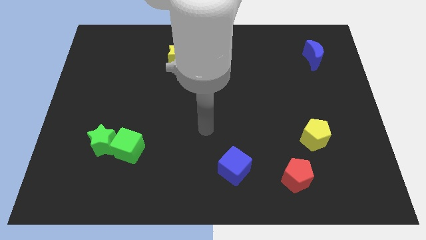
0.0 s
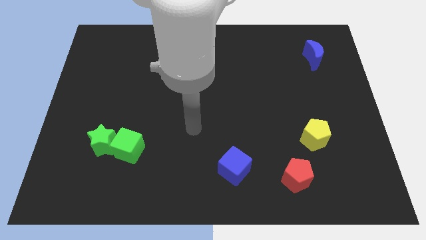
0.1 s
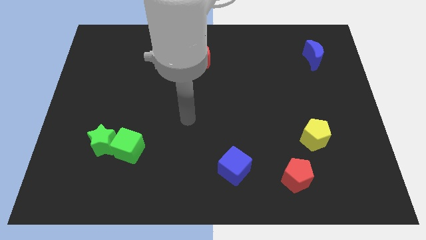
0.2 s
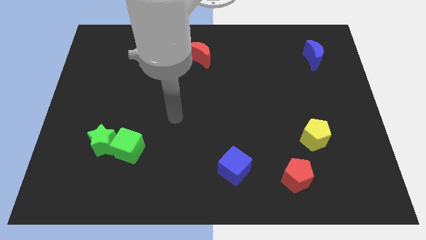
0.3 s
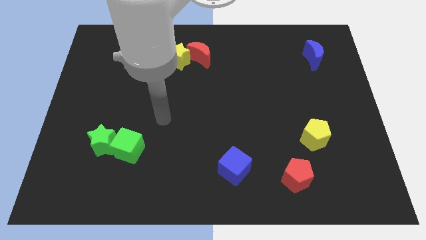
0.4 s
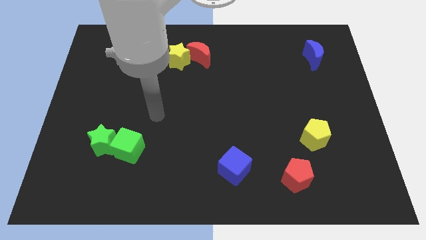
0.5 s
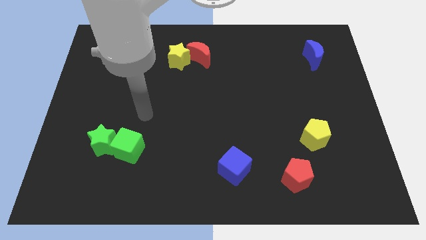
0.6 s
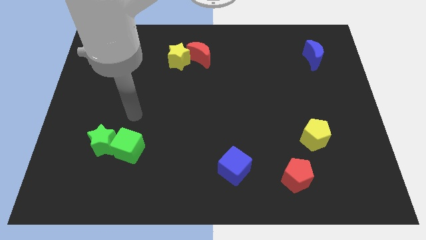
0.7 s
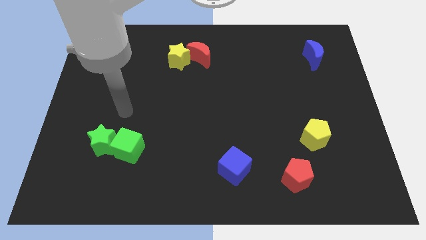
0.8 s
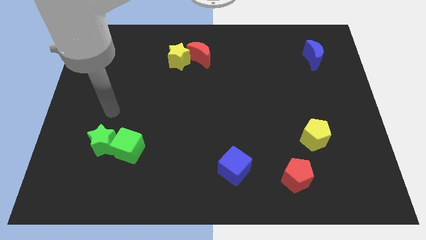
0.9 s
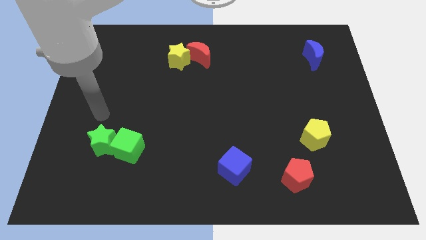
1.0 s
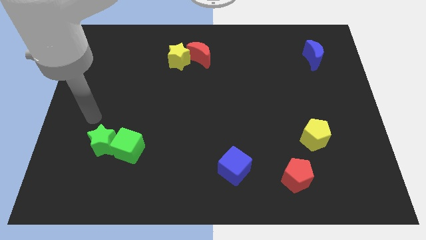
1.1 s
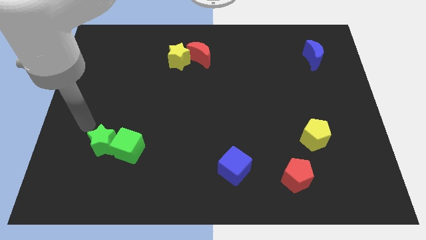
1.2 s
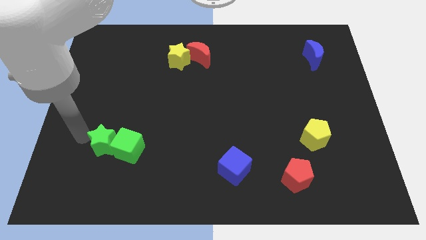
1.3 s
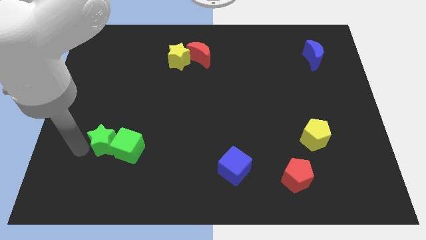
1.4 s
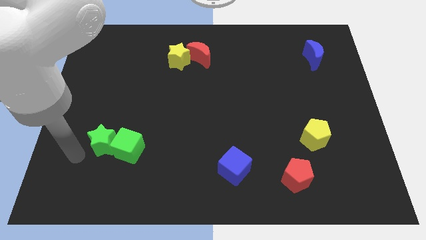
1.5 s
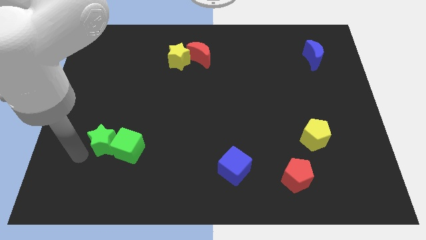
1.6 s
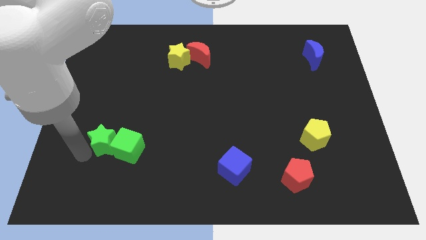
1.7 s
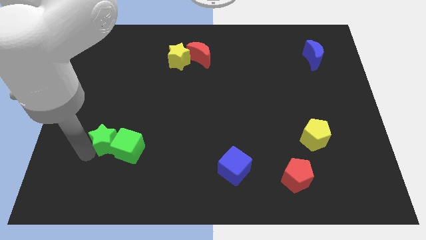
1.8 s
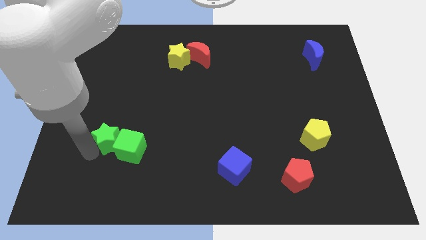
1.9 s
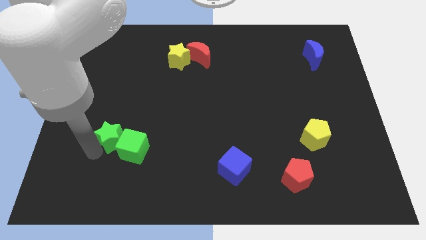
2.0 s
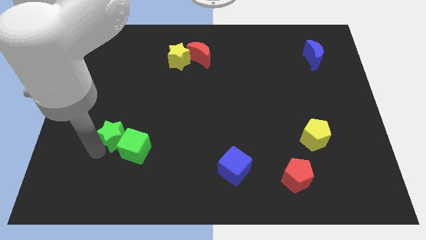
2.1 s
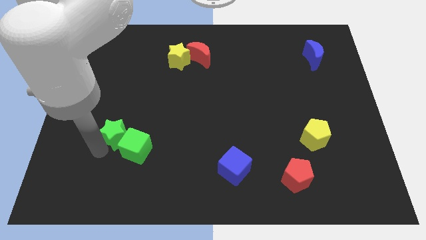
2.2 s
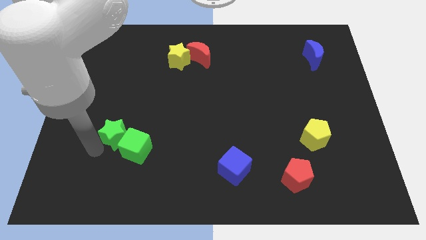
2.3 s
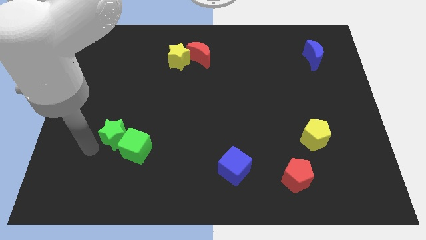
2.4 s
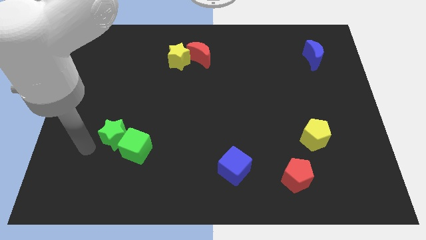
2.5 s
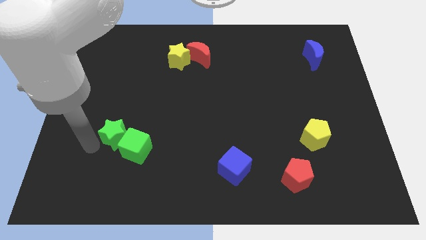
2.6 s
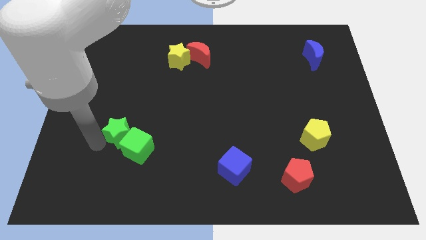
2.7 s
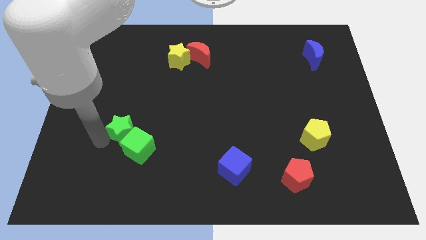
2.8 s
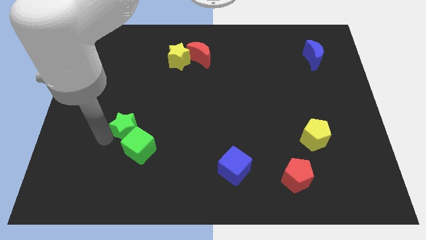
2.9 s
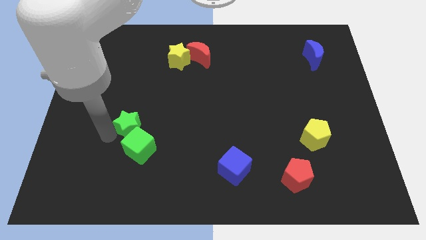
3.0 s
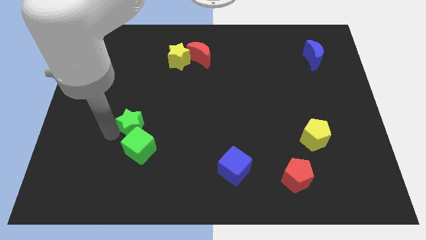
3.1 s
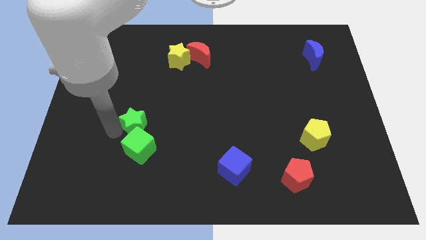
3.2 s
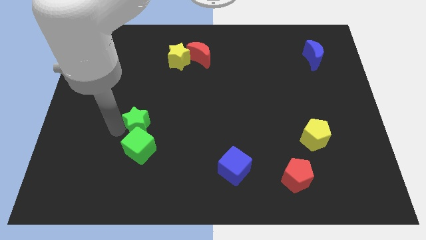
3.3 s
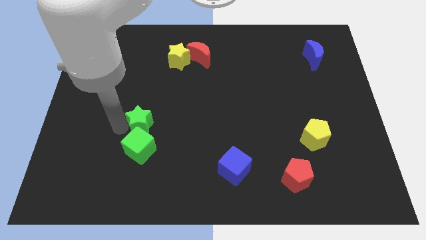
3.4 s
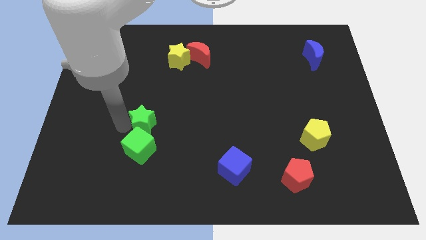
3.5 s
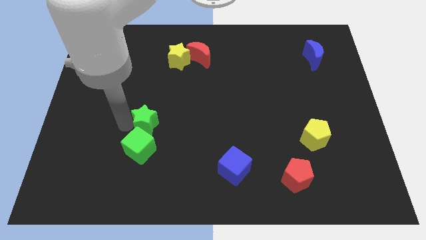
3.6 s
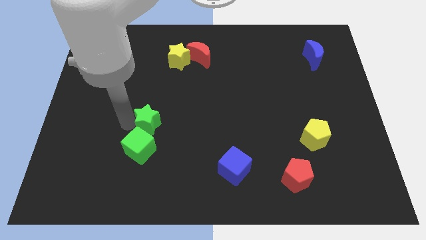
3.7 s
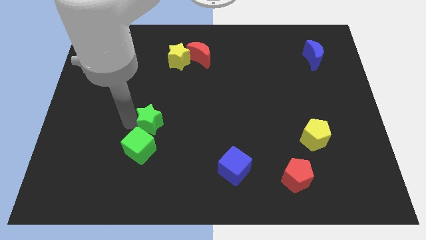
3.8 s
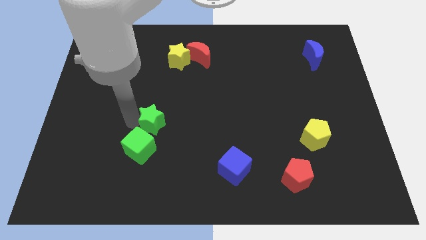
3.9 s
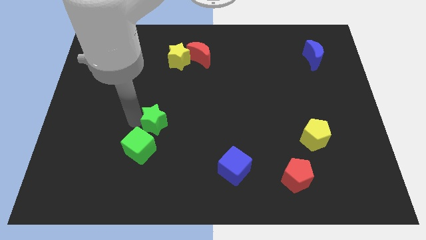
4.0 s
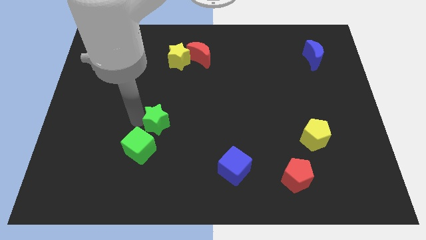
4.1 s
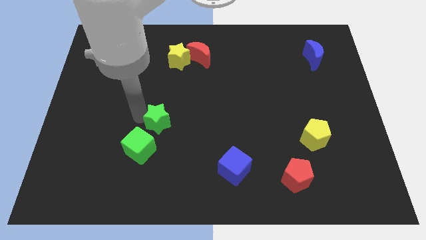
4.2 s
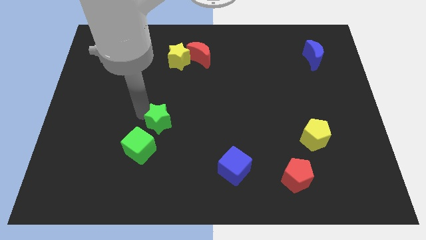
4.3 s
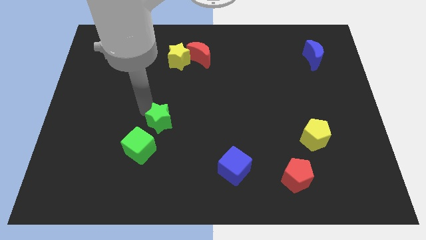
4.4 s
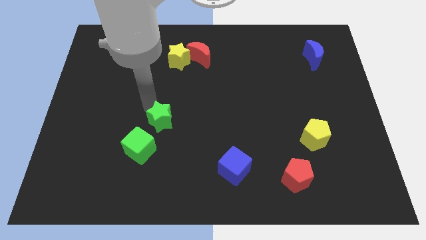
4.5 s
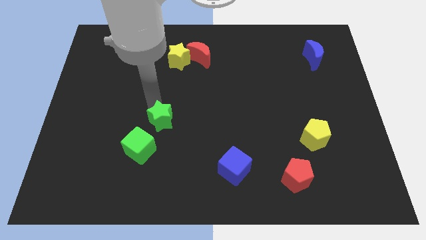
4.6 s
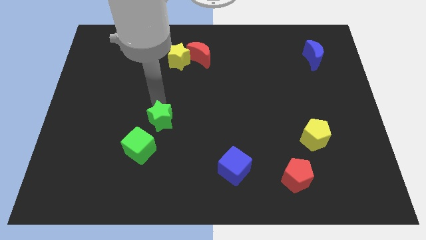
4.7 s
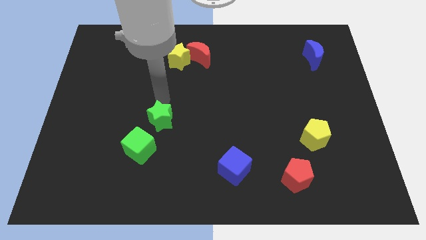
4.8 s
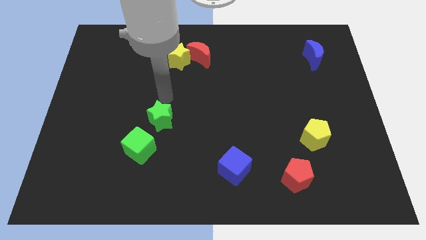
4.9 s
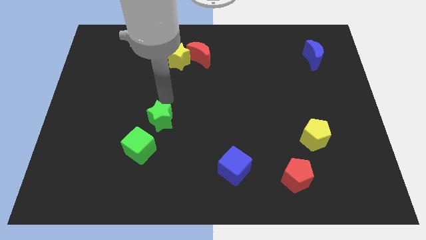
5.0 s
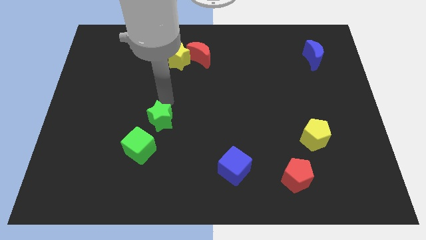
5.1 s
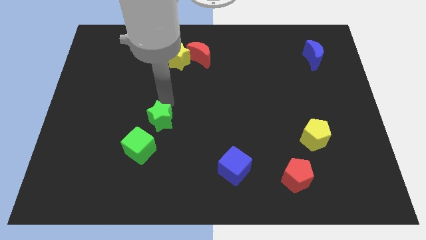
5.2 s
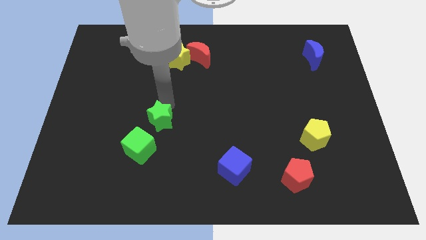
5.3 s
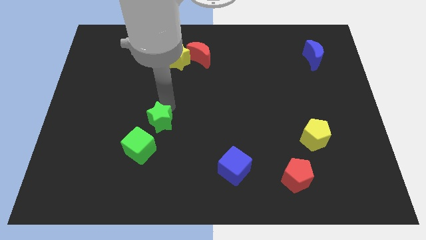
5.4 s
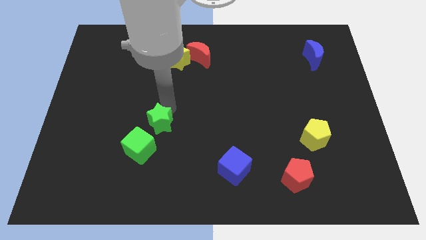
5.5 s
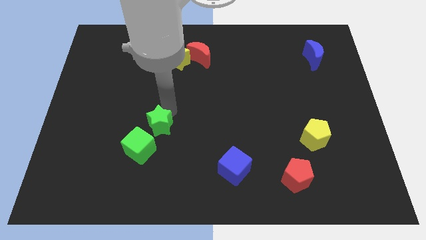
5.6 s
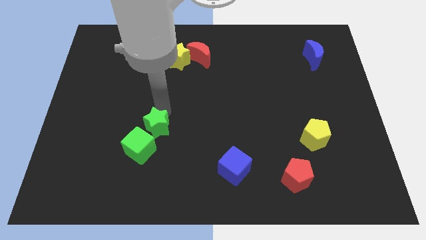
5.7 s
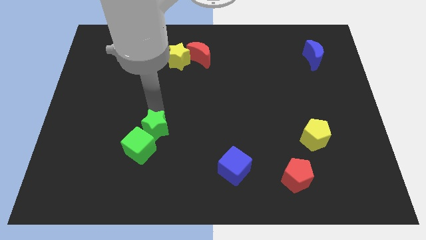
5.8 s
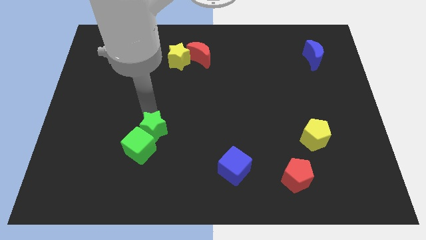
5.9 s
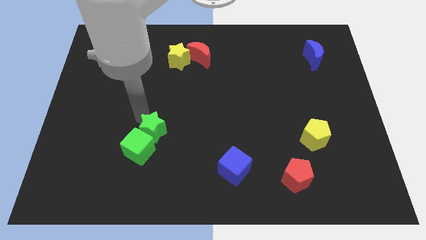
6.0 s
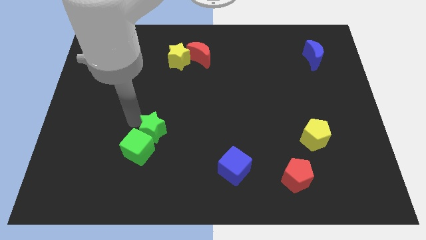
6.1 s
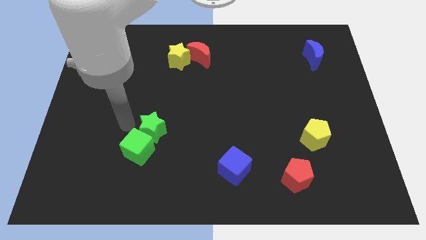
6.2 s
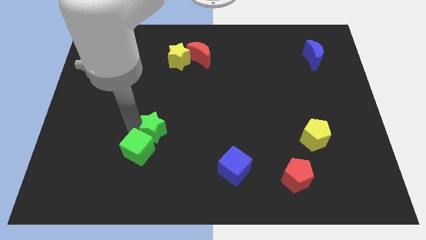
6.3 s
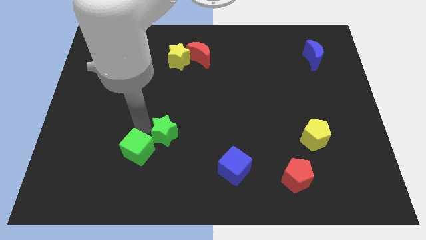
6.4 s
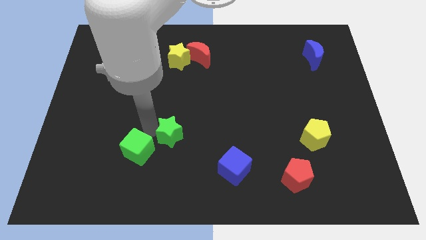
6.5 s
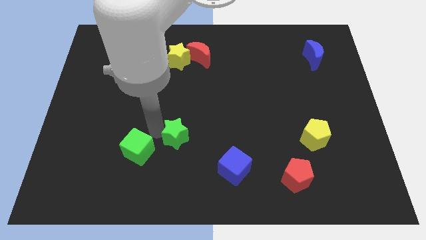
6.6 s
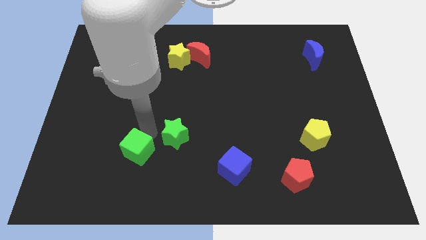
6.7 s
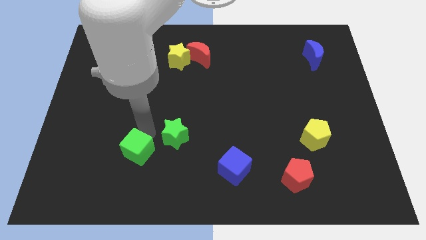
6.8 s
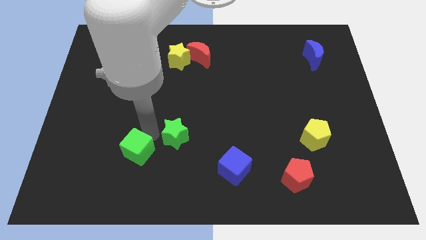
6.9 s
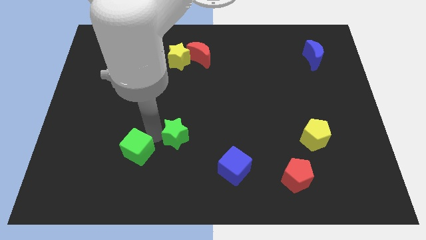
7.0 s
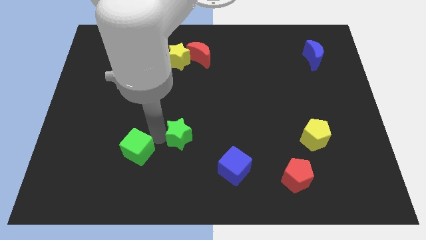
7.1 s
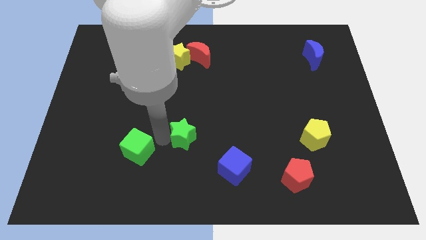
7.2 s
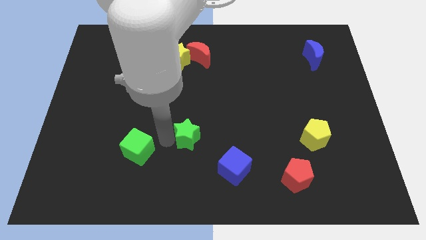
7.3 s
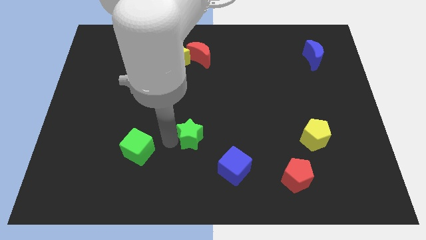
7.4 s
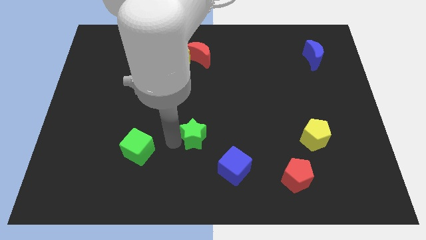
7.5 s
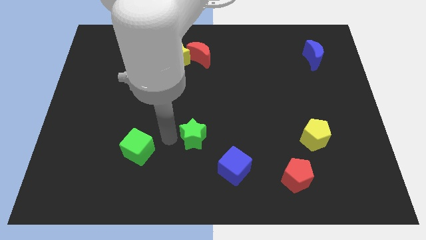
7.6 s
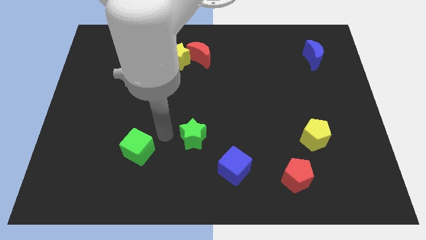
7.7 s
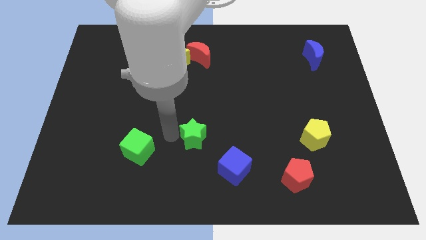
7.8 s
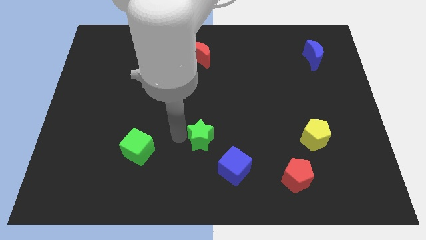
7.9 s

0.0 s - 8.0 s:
slide the green star to the right

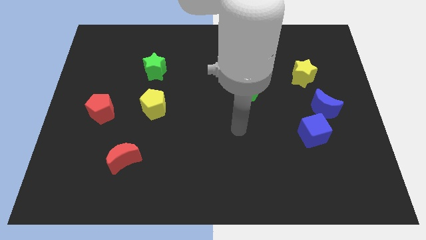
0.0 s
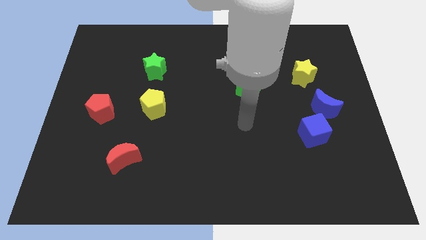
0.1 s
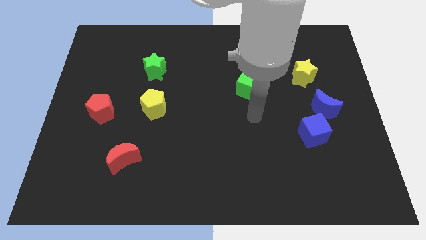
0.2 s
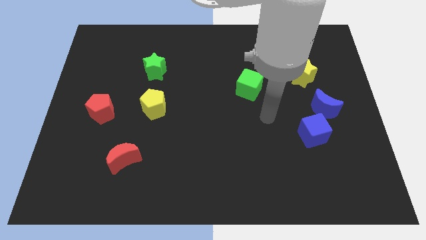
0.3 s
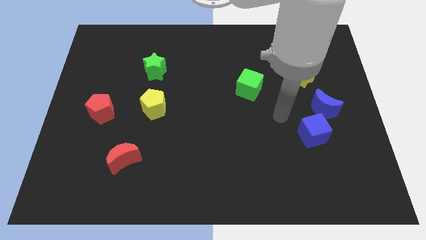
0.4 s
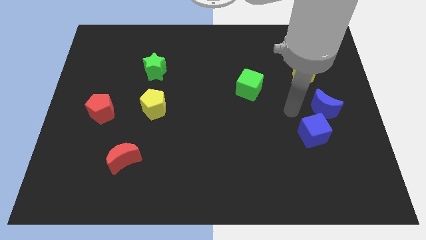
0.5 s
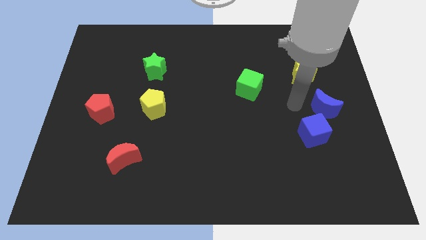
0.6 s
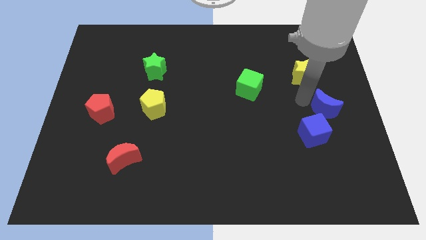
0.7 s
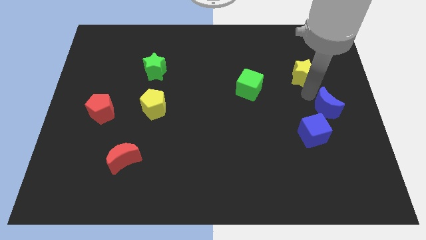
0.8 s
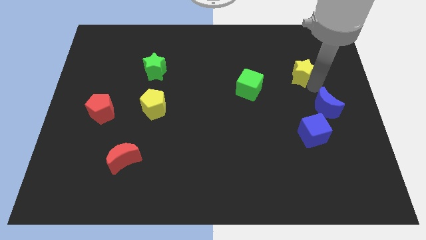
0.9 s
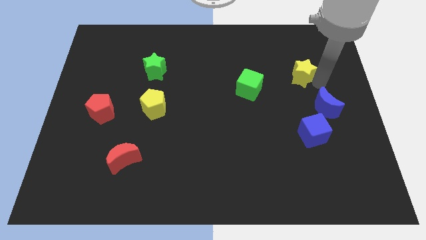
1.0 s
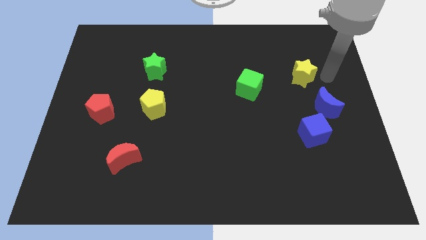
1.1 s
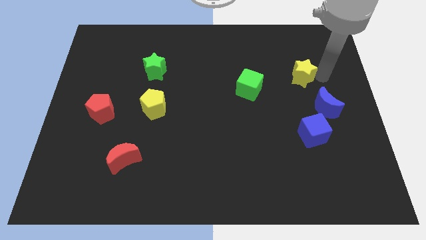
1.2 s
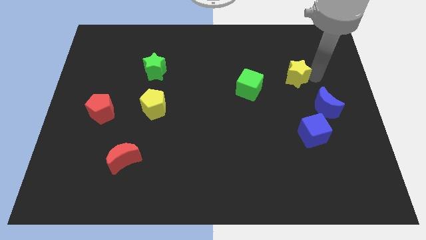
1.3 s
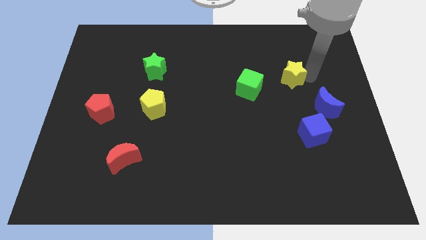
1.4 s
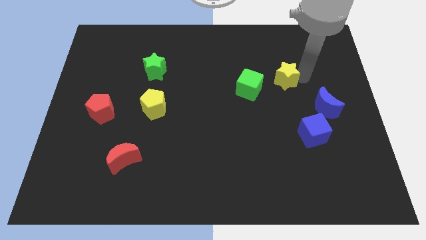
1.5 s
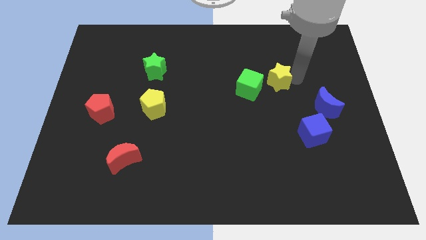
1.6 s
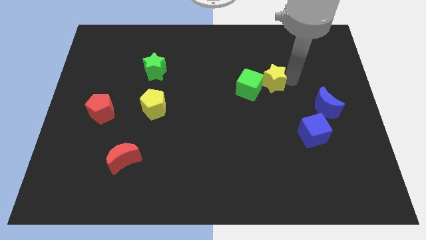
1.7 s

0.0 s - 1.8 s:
slide the yellow star a little bit left
